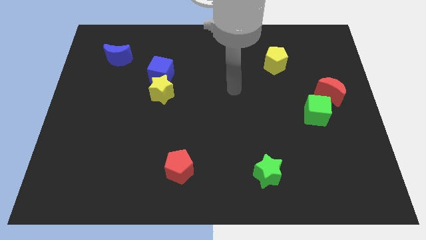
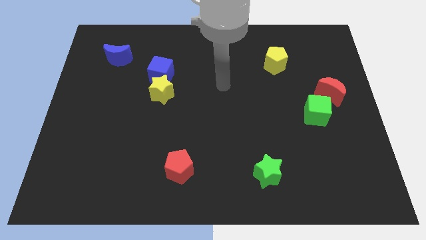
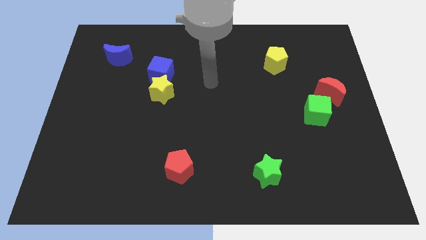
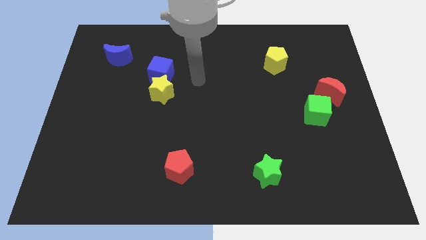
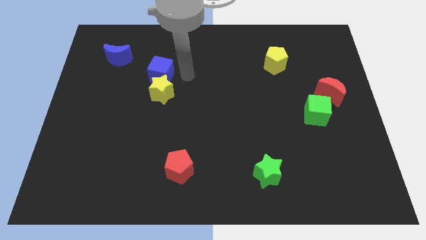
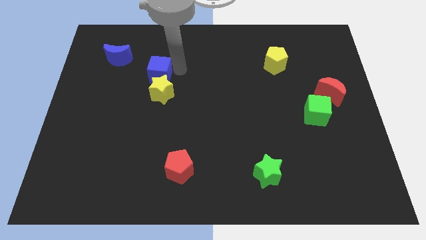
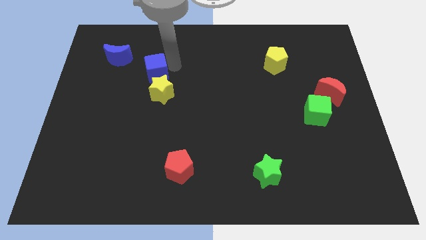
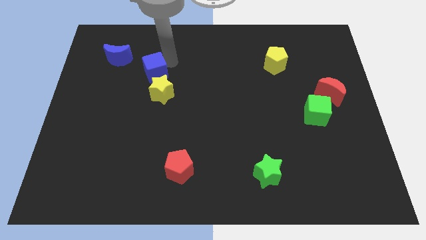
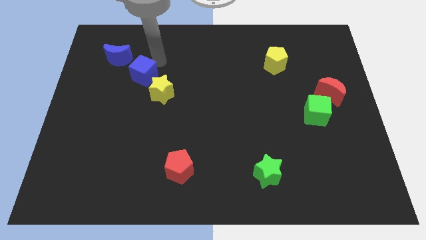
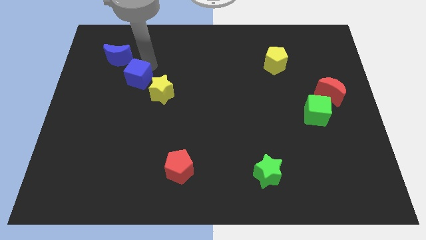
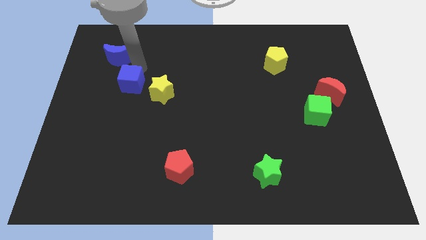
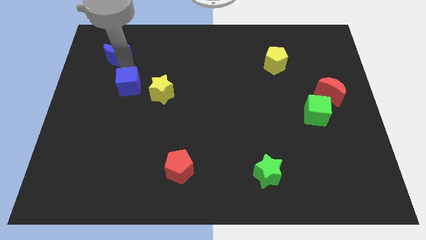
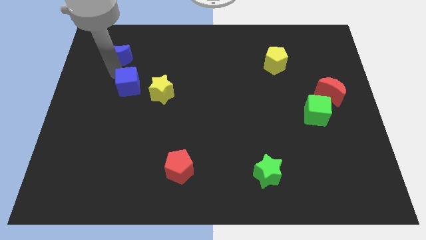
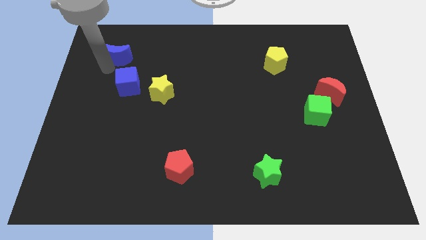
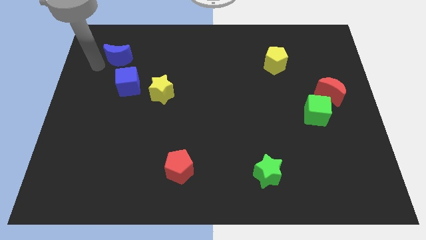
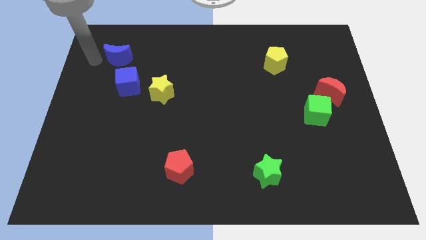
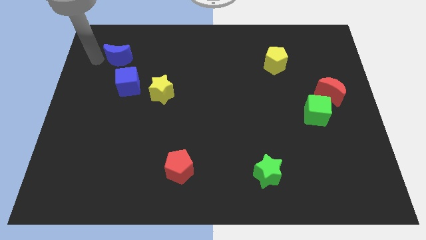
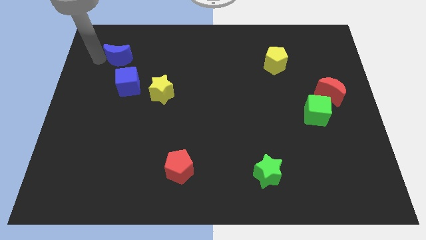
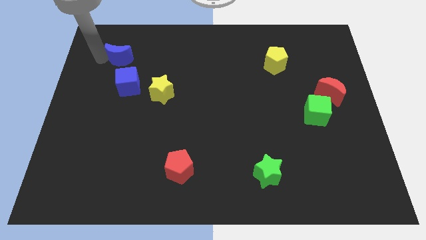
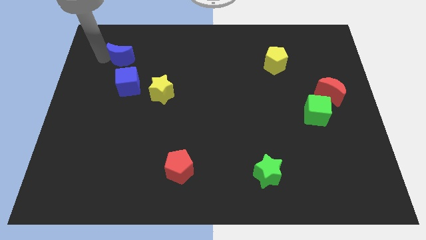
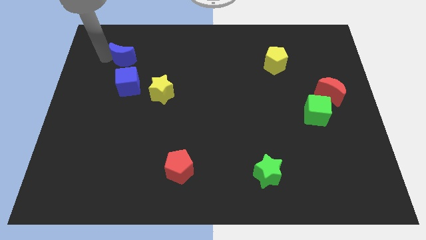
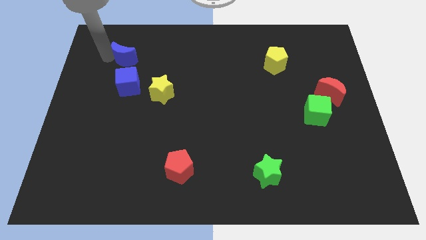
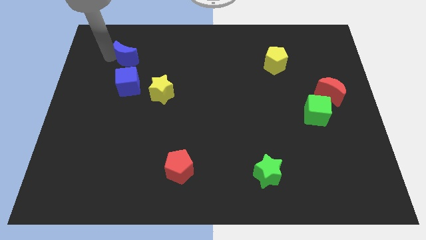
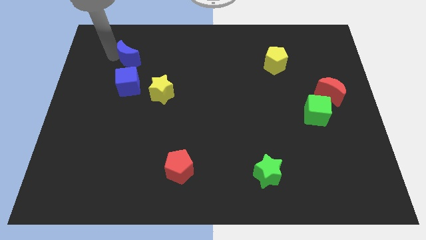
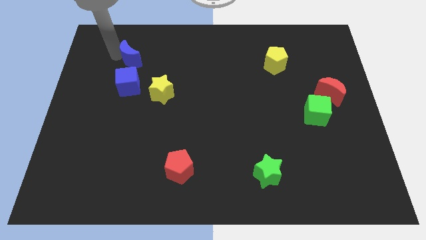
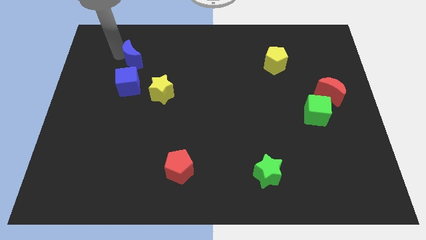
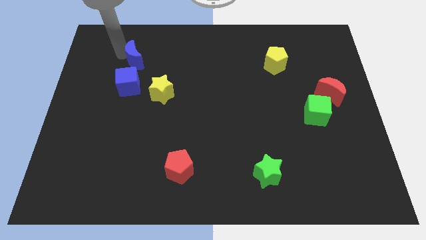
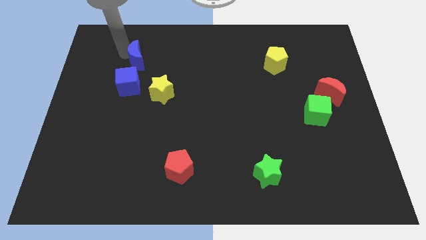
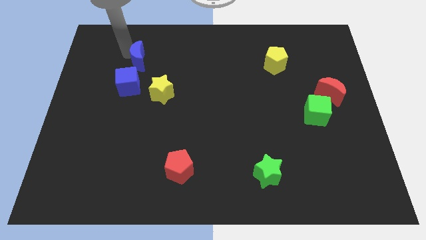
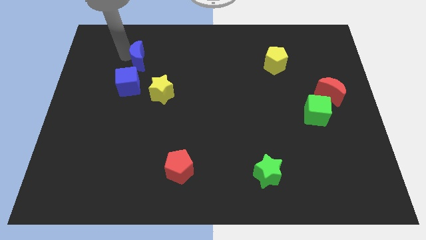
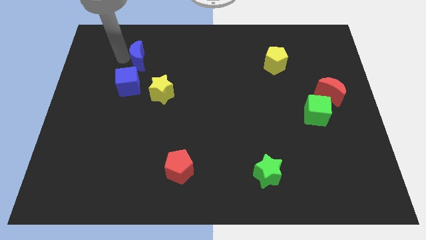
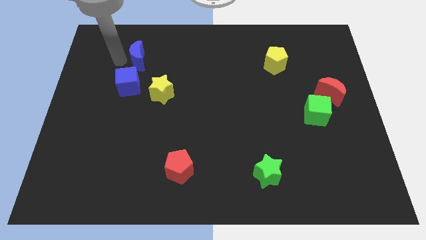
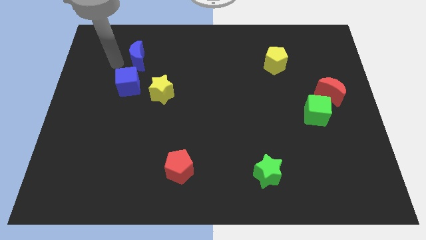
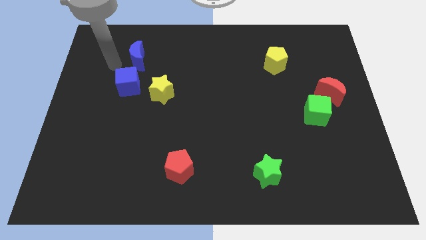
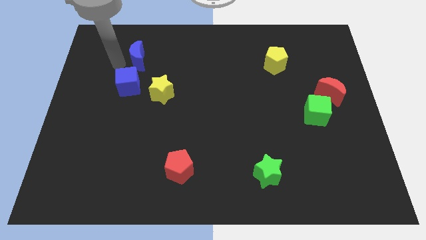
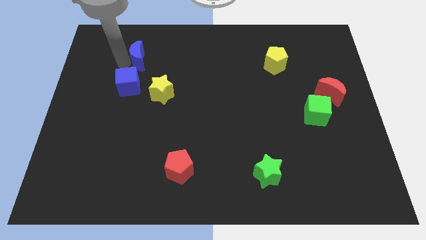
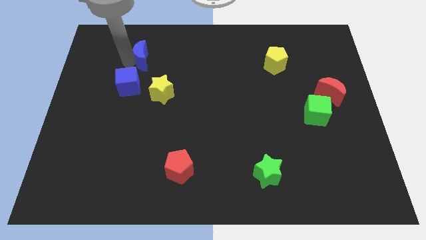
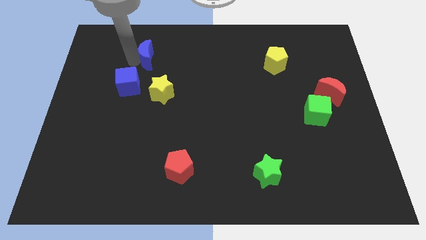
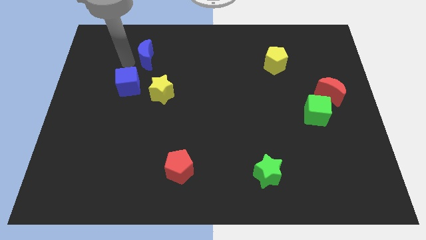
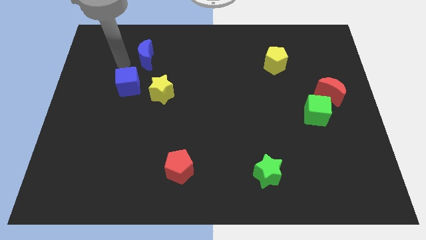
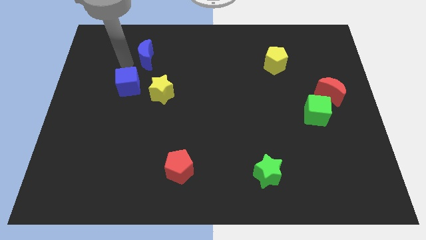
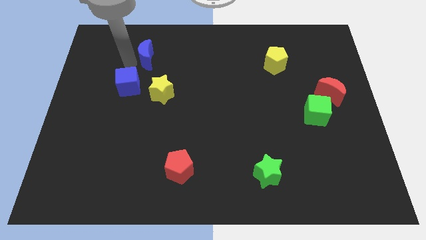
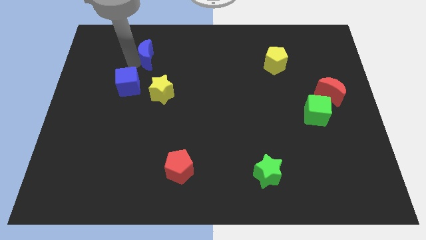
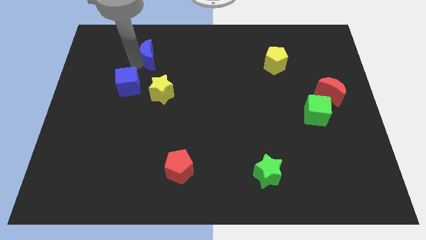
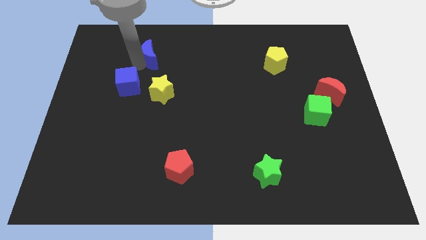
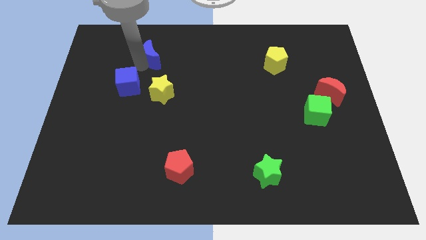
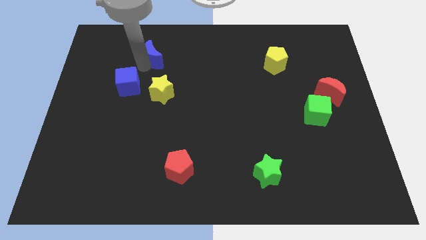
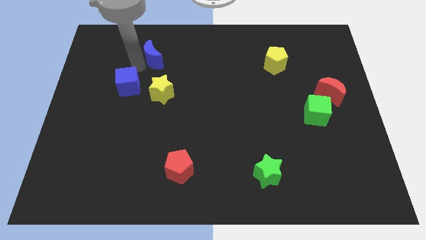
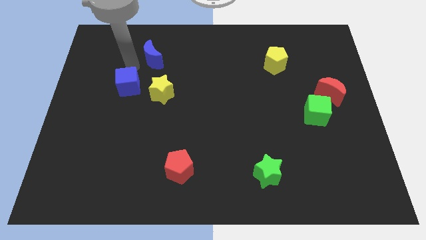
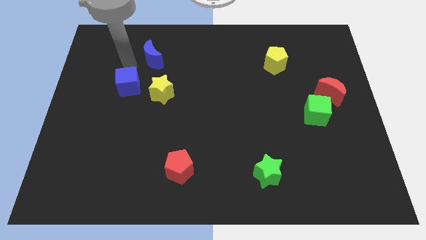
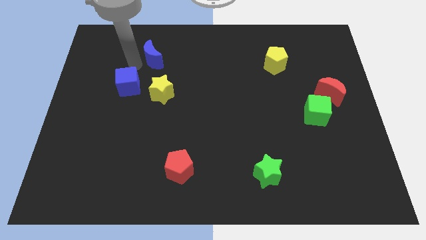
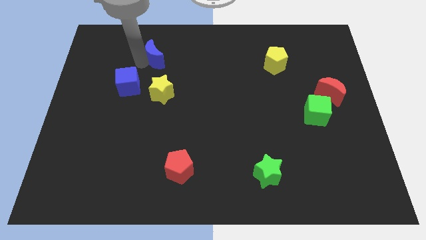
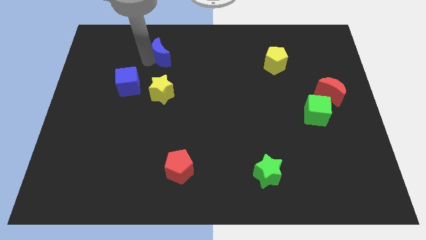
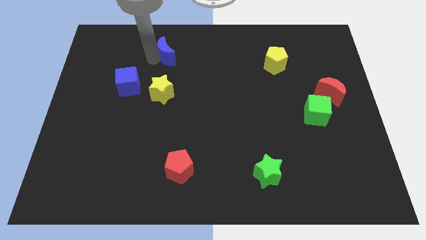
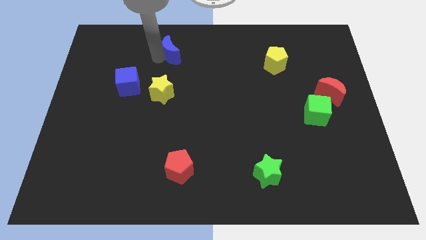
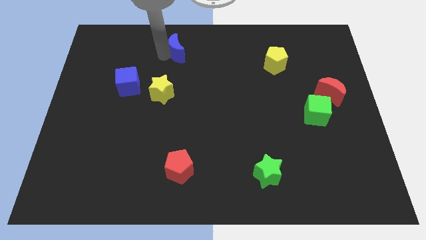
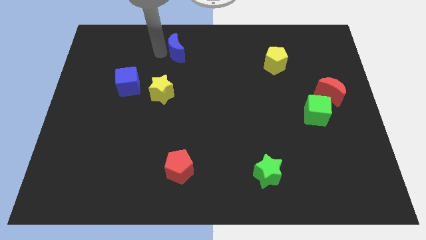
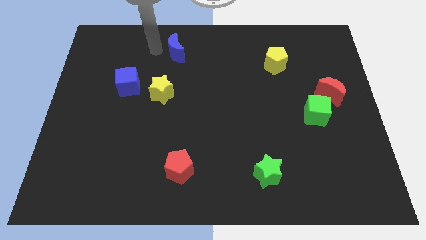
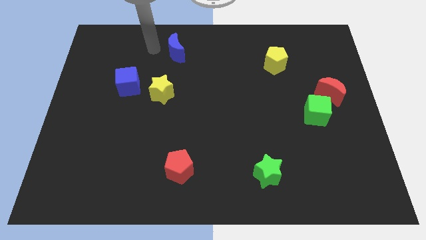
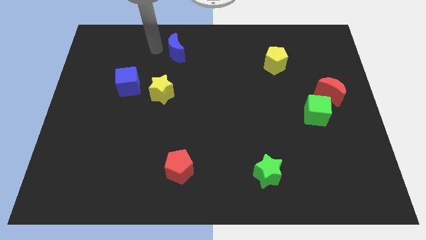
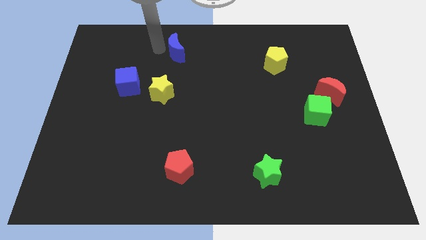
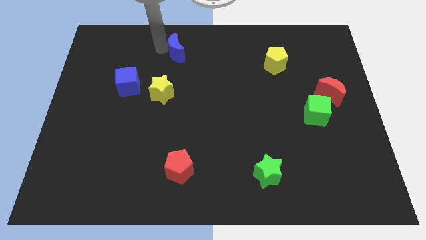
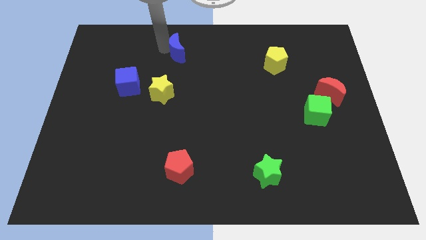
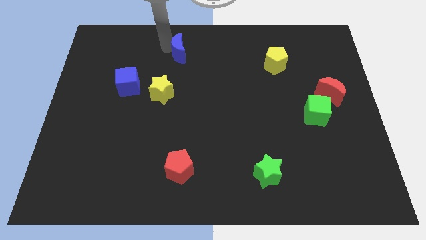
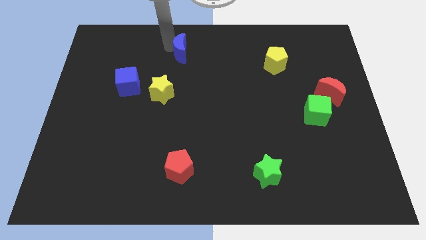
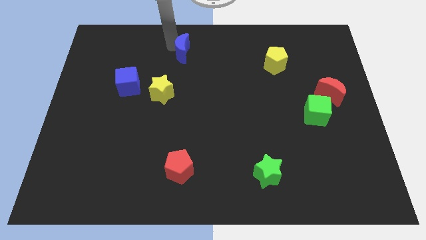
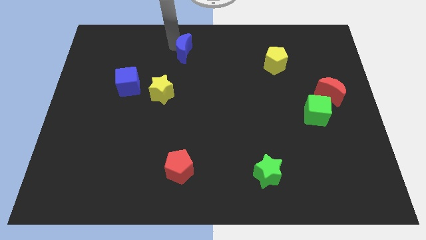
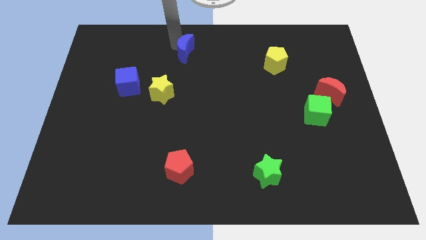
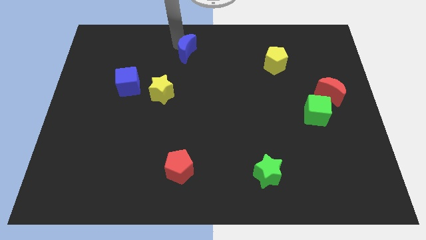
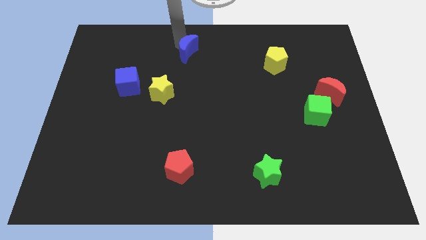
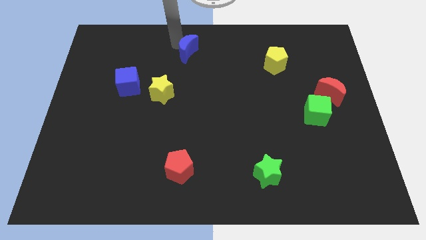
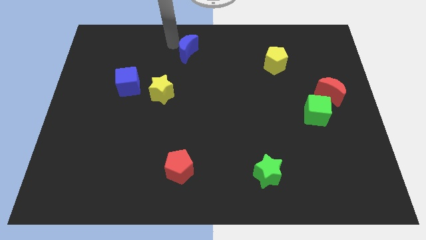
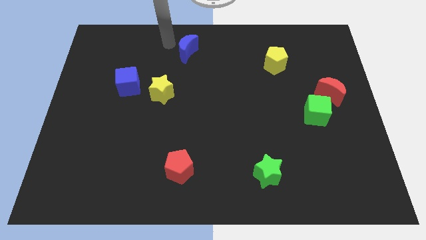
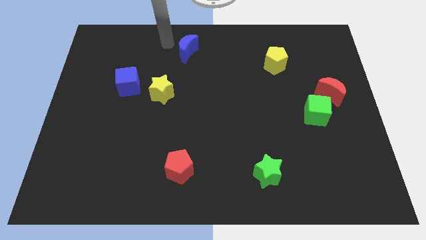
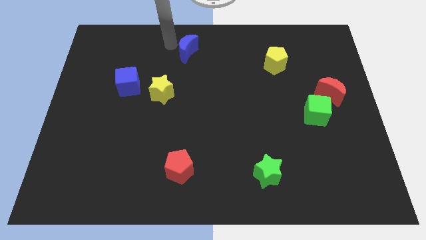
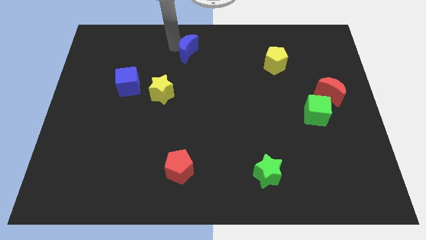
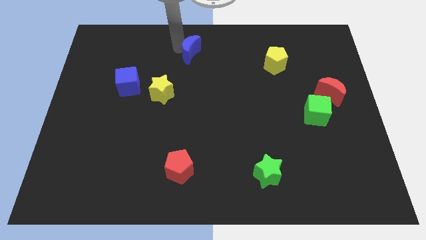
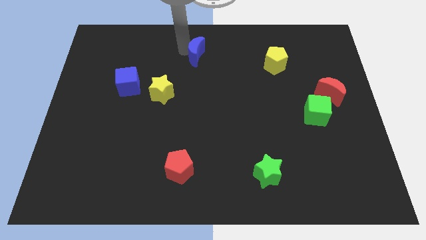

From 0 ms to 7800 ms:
push the blue moon to the right

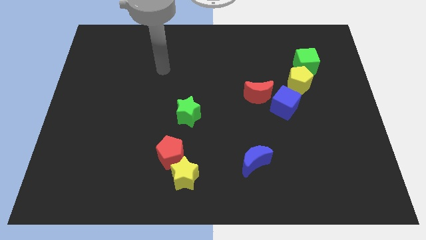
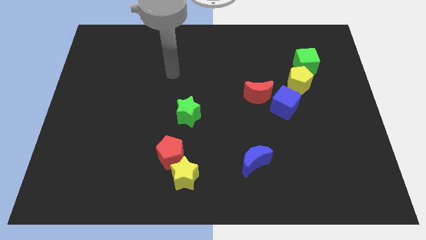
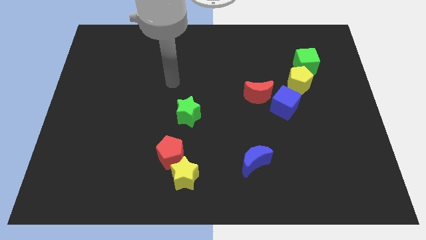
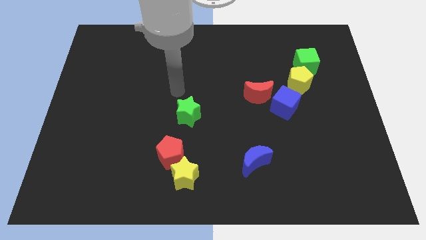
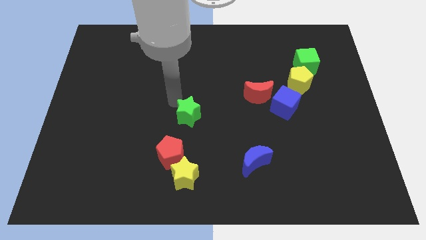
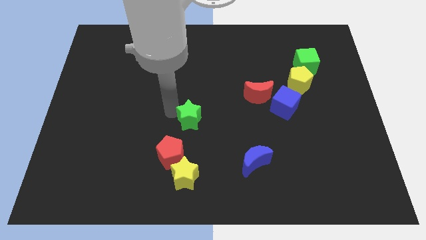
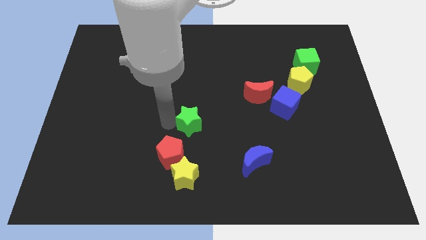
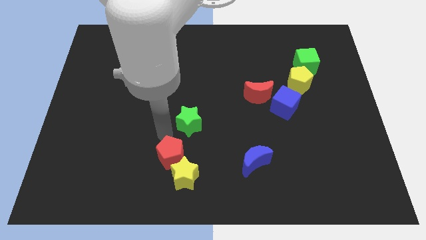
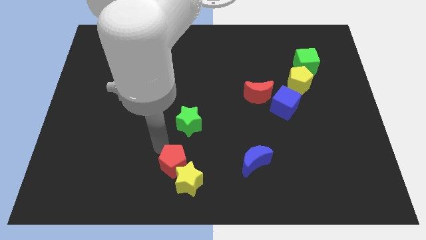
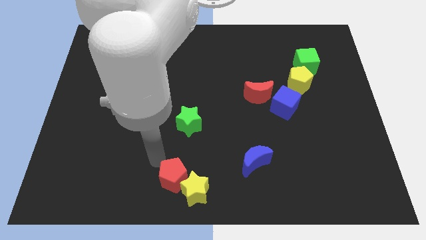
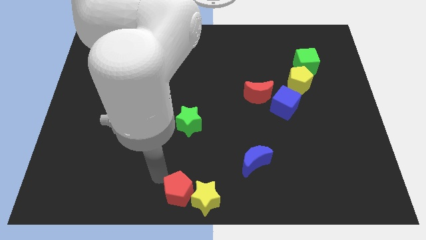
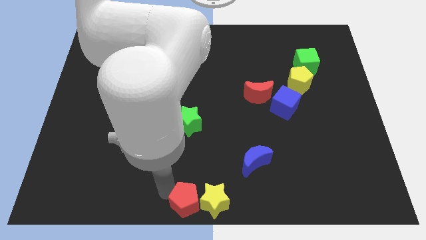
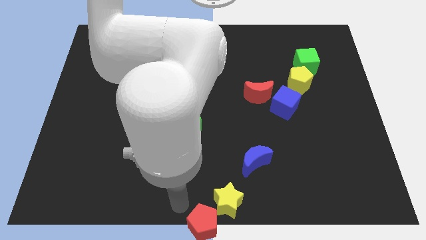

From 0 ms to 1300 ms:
slightly push the yellow star to the right
